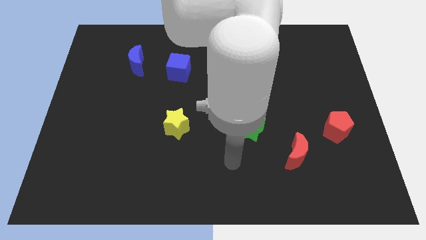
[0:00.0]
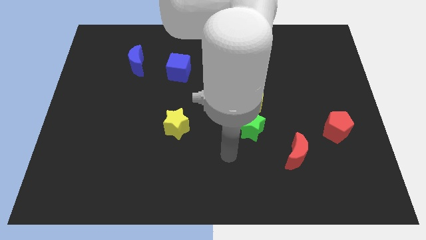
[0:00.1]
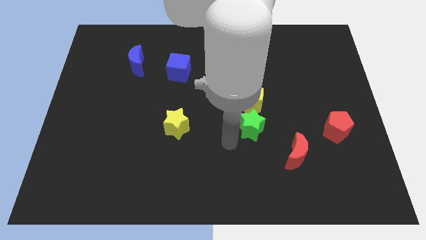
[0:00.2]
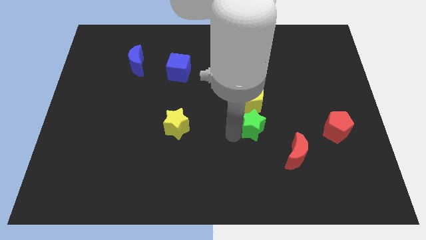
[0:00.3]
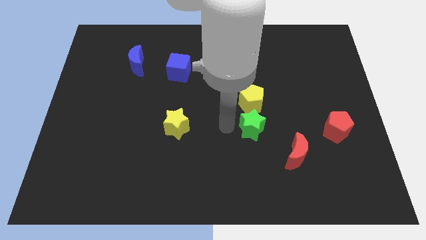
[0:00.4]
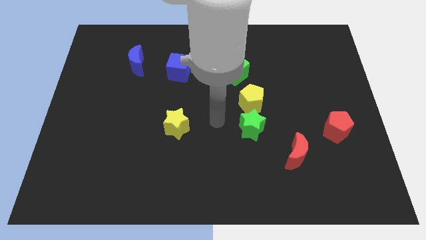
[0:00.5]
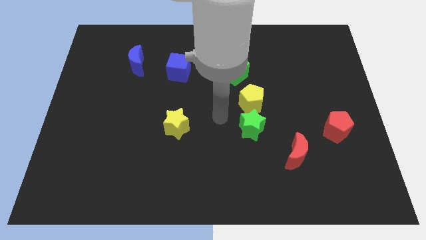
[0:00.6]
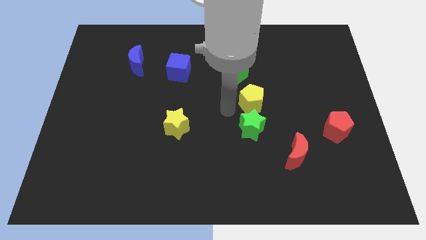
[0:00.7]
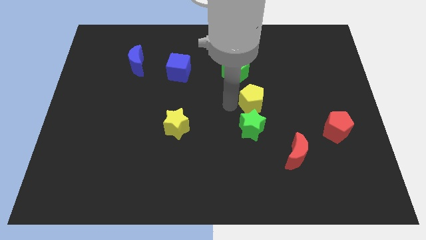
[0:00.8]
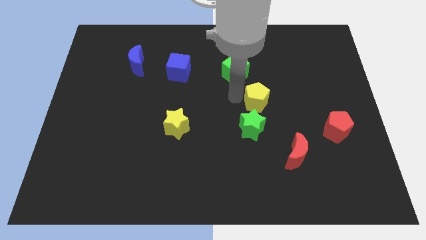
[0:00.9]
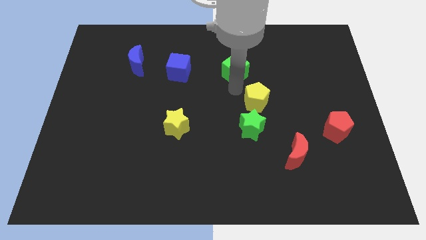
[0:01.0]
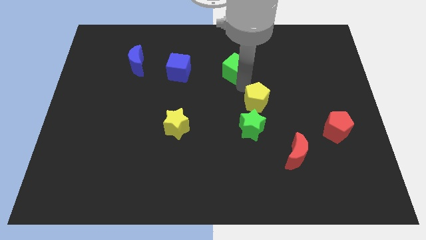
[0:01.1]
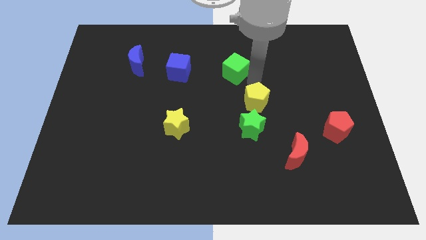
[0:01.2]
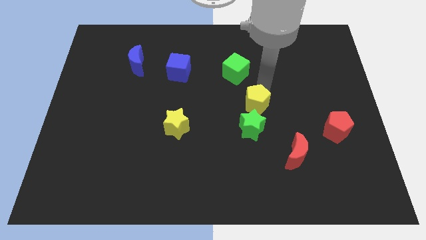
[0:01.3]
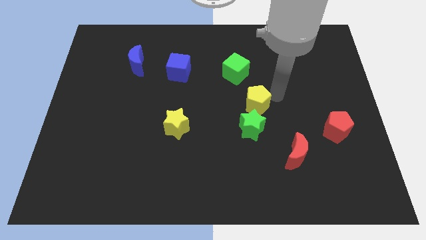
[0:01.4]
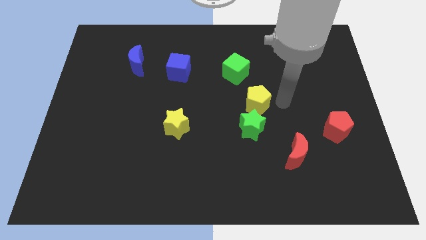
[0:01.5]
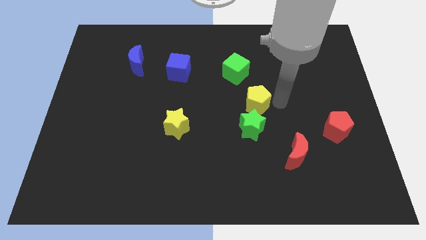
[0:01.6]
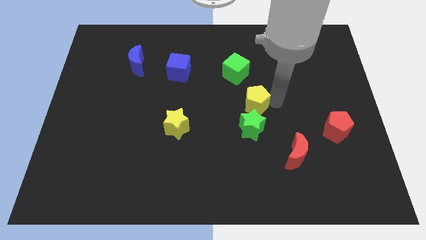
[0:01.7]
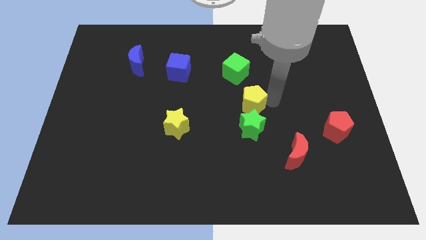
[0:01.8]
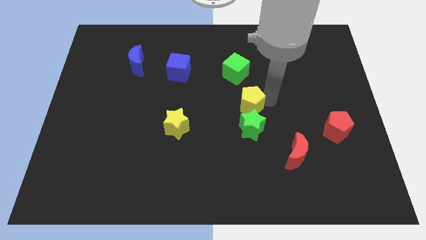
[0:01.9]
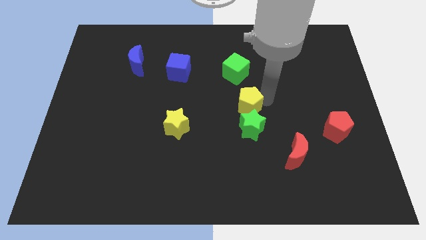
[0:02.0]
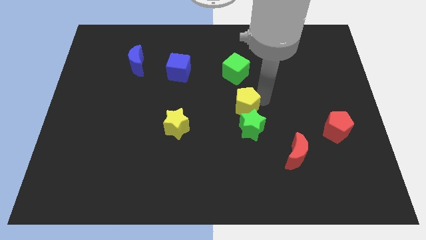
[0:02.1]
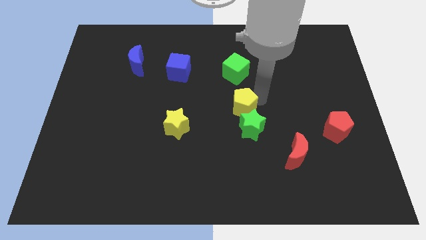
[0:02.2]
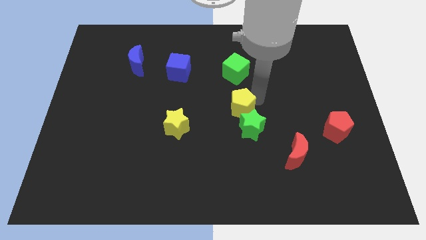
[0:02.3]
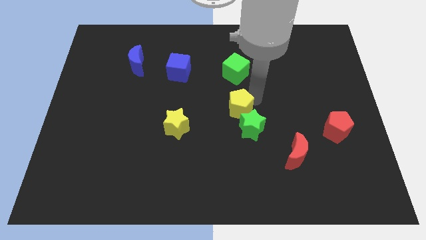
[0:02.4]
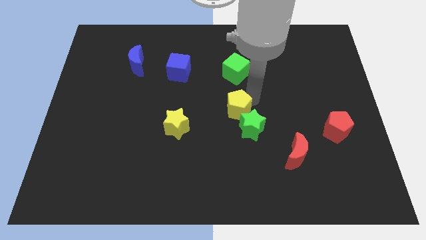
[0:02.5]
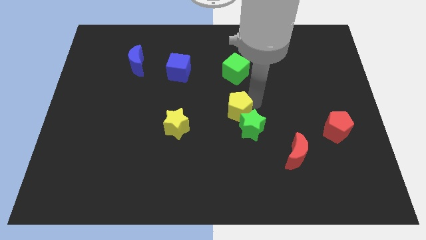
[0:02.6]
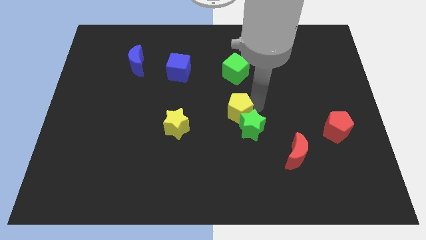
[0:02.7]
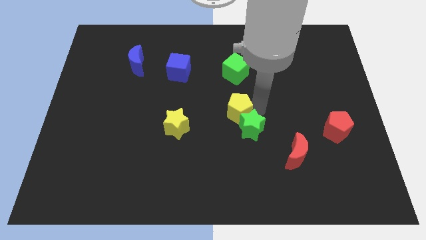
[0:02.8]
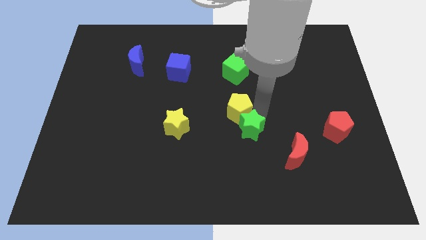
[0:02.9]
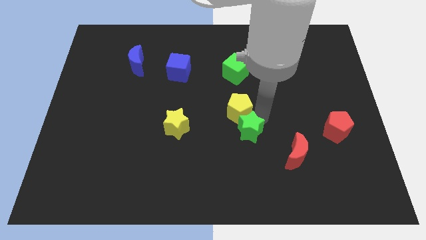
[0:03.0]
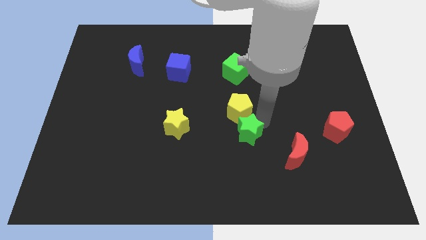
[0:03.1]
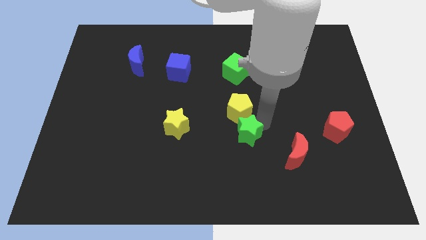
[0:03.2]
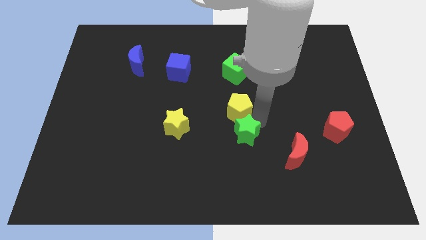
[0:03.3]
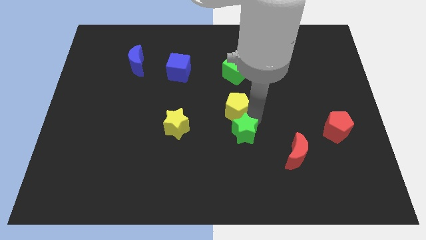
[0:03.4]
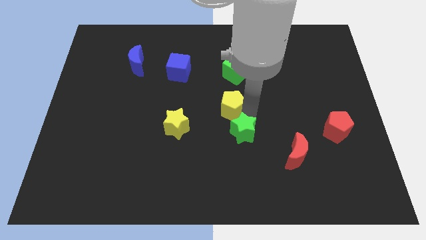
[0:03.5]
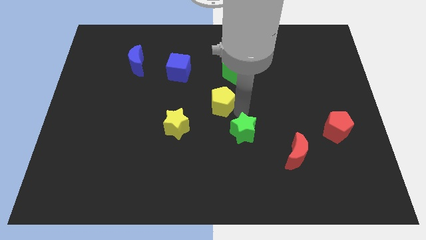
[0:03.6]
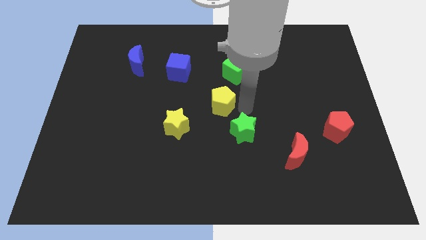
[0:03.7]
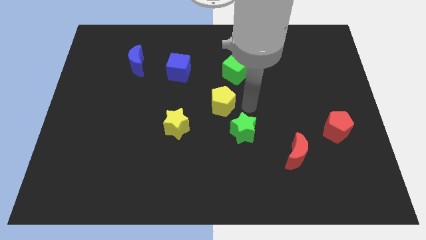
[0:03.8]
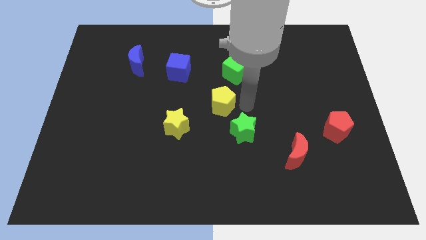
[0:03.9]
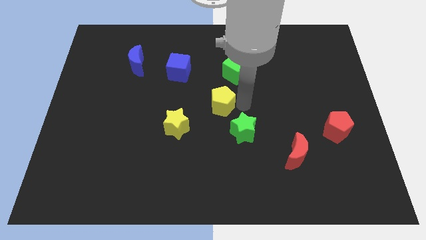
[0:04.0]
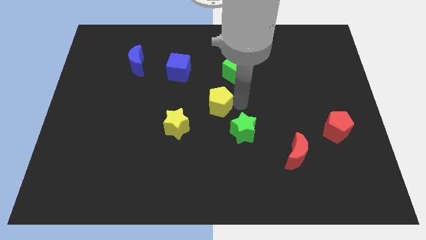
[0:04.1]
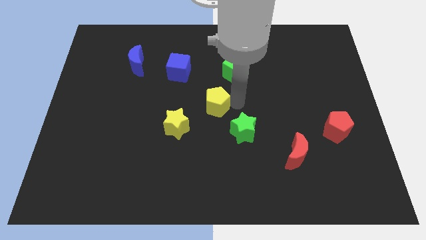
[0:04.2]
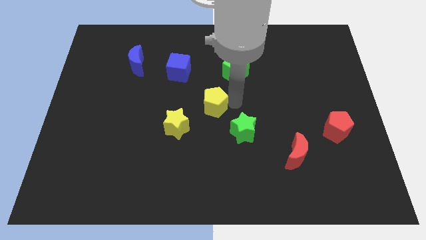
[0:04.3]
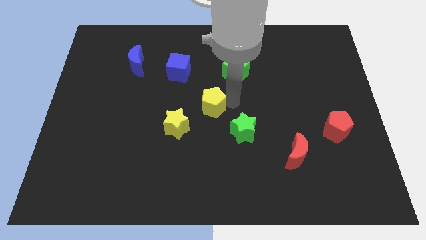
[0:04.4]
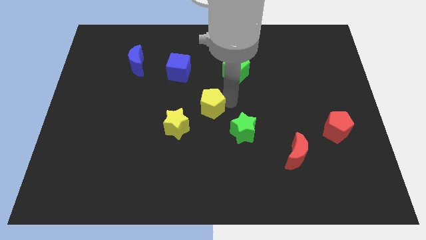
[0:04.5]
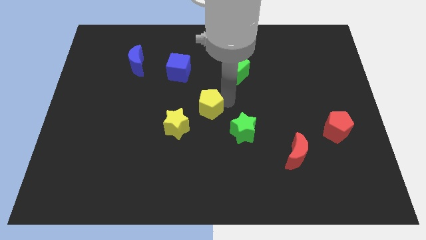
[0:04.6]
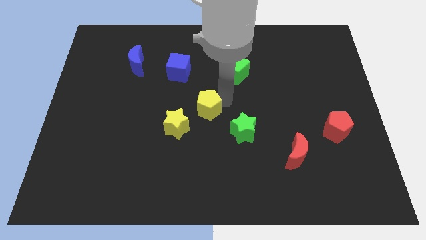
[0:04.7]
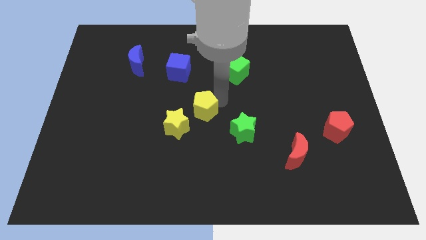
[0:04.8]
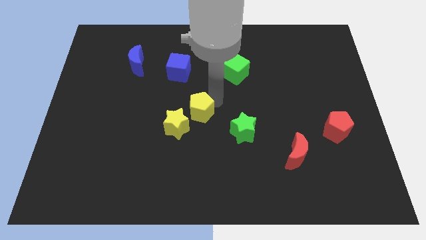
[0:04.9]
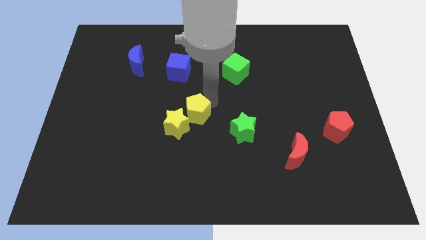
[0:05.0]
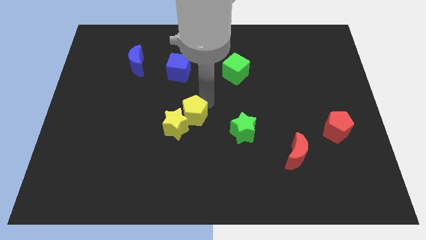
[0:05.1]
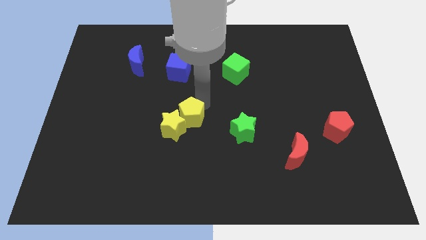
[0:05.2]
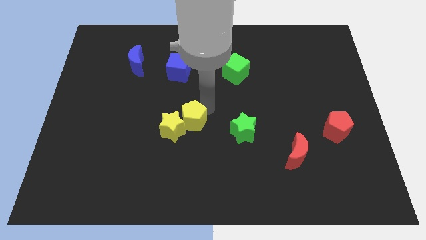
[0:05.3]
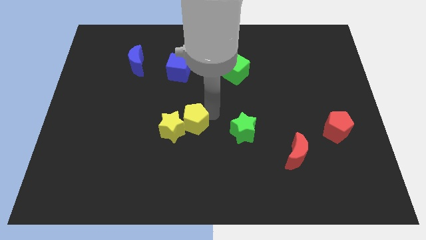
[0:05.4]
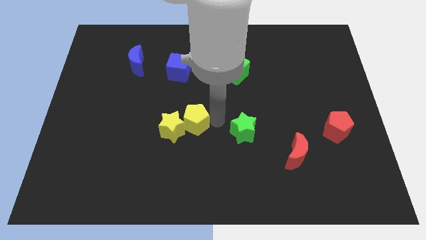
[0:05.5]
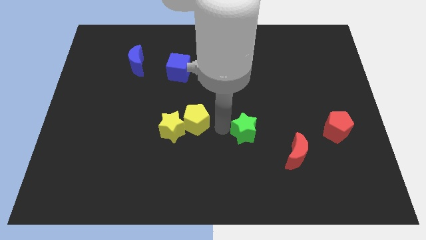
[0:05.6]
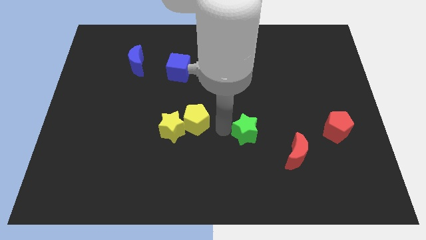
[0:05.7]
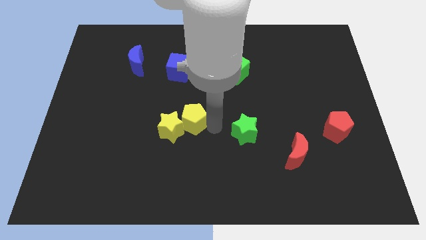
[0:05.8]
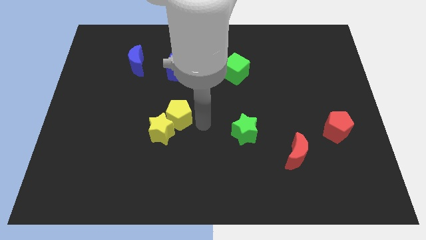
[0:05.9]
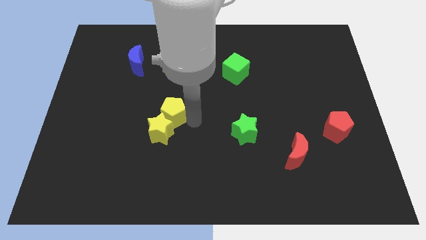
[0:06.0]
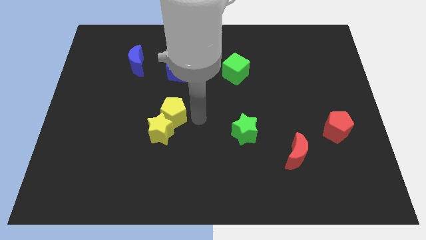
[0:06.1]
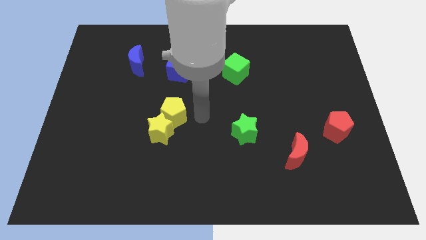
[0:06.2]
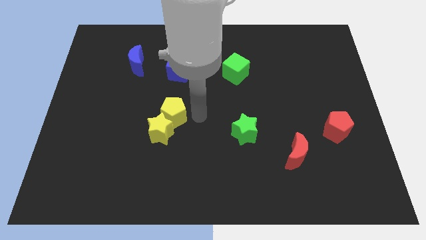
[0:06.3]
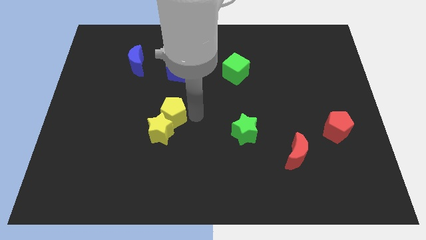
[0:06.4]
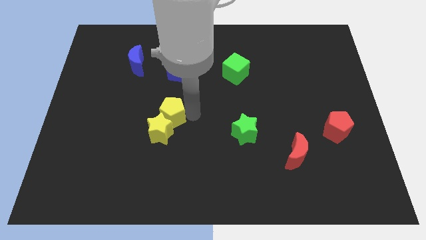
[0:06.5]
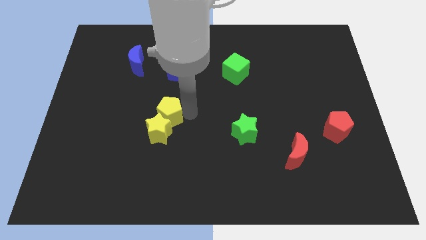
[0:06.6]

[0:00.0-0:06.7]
move the yellow pentagon to the top left side of the yellow star

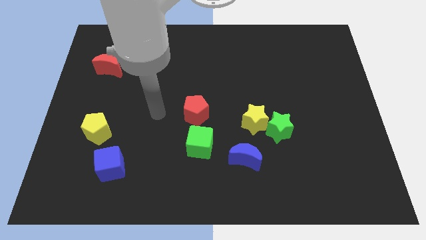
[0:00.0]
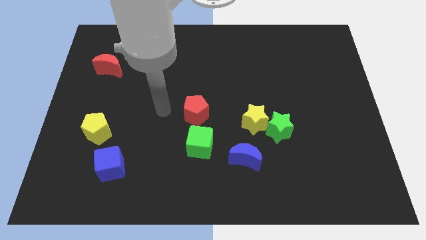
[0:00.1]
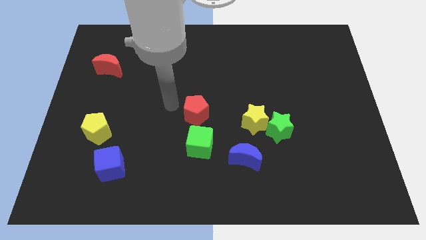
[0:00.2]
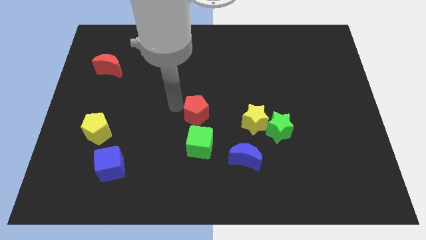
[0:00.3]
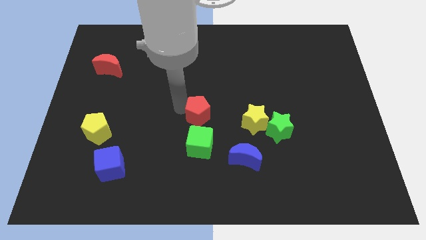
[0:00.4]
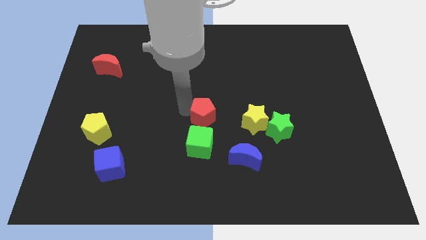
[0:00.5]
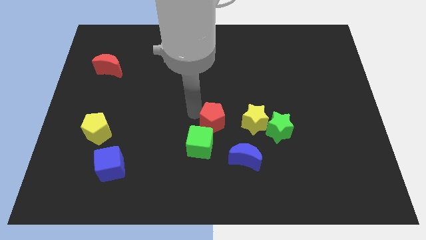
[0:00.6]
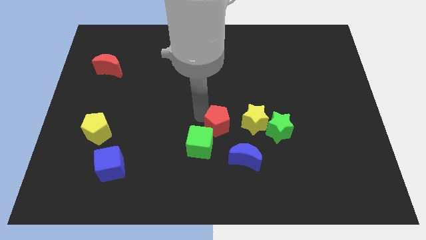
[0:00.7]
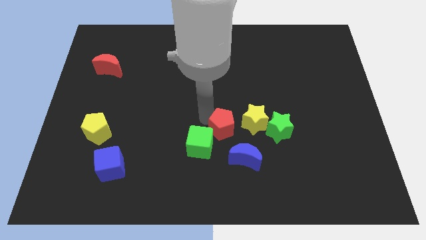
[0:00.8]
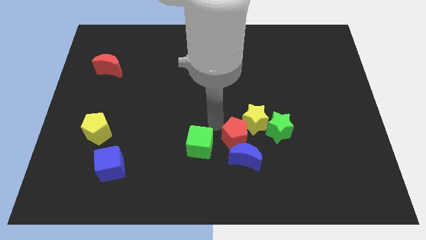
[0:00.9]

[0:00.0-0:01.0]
push the red pentagon below the yellow star

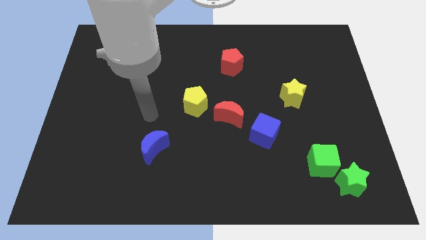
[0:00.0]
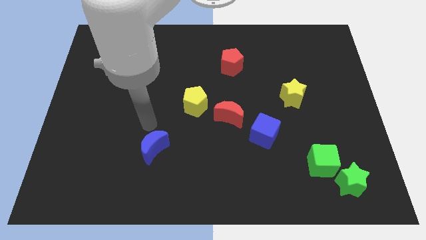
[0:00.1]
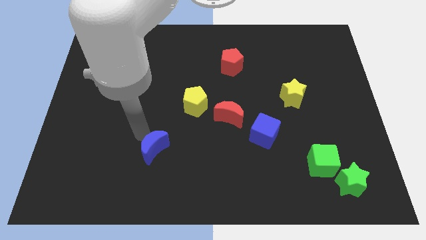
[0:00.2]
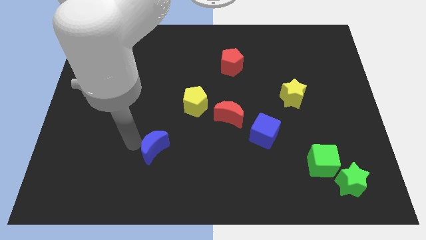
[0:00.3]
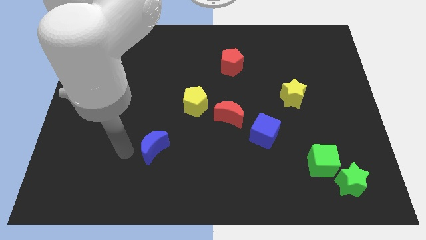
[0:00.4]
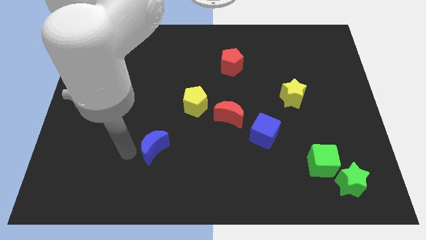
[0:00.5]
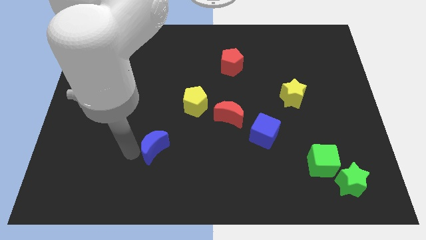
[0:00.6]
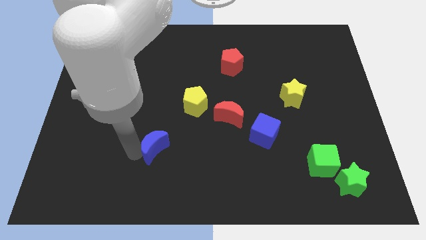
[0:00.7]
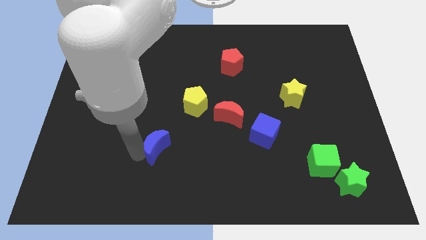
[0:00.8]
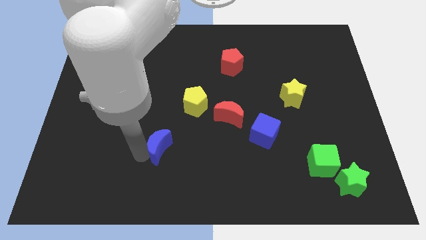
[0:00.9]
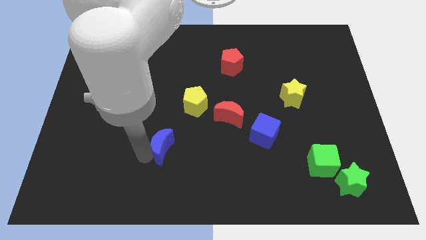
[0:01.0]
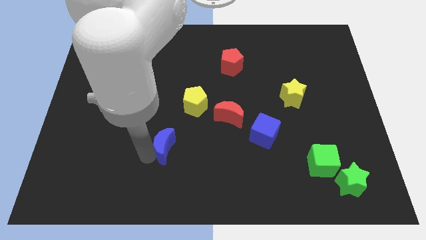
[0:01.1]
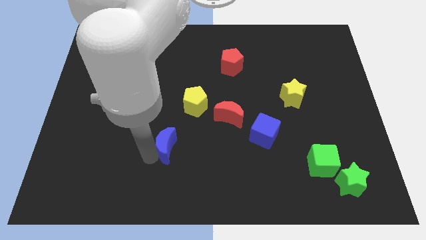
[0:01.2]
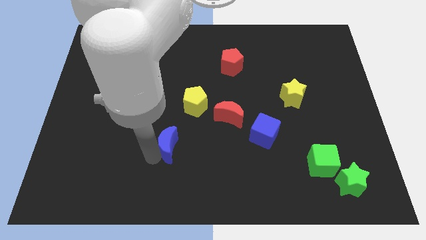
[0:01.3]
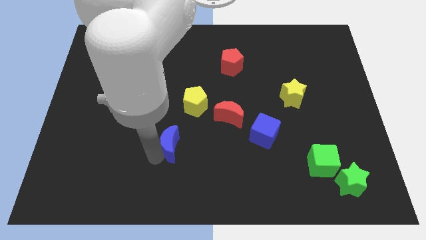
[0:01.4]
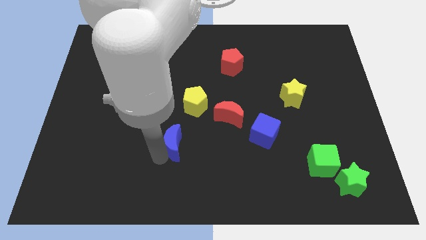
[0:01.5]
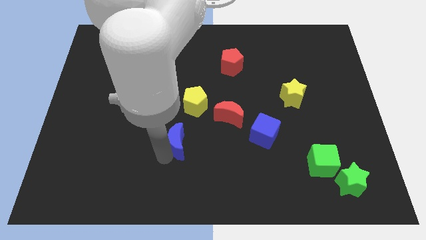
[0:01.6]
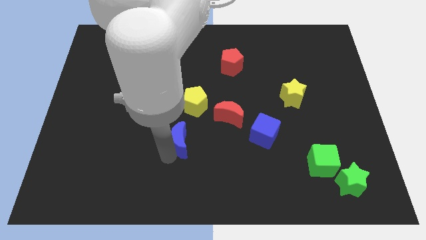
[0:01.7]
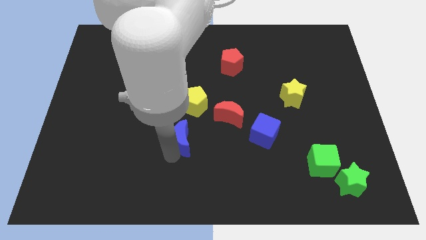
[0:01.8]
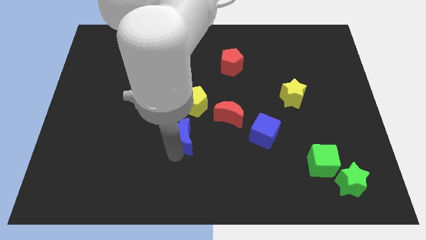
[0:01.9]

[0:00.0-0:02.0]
push the blue moon to the bottom left side of the red moon
